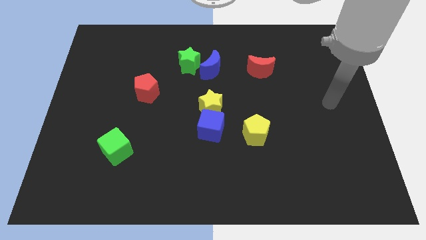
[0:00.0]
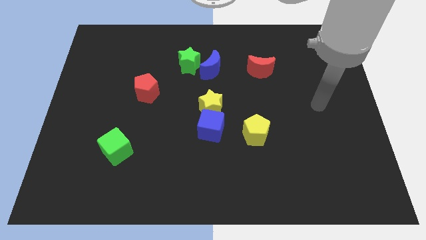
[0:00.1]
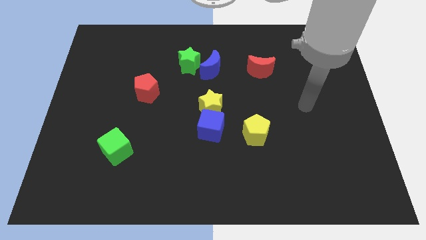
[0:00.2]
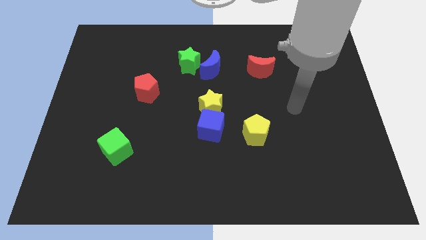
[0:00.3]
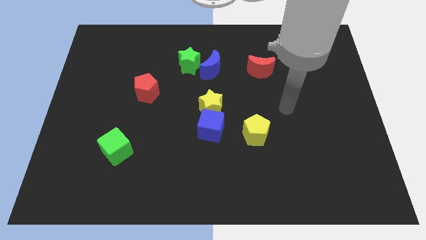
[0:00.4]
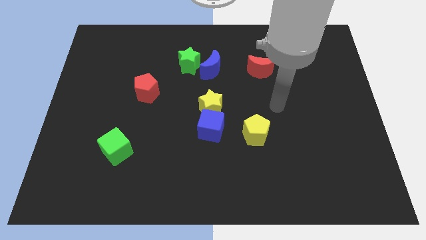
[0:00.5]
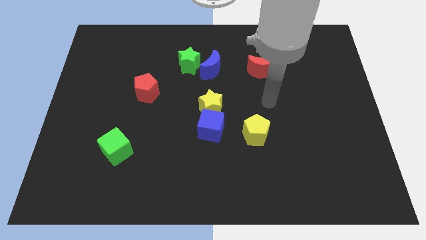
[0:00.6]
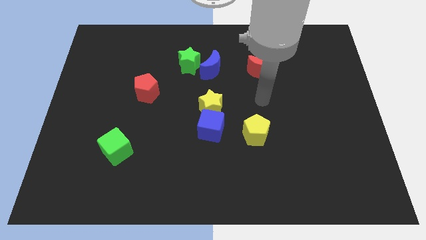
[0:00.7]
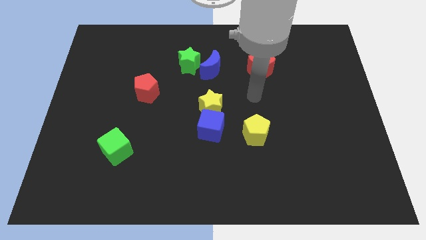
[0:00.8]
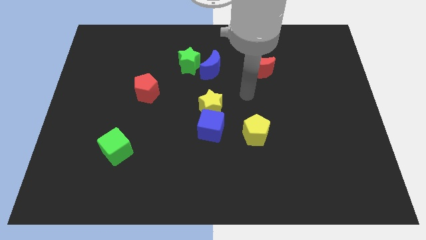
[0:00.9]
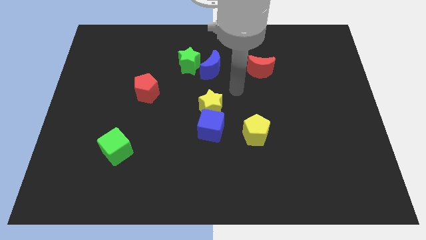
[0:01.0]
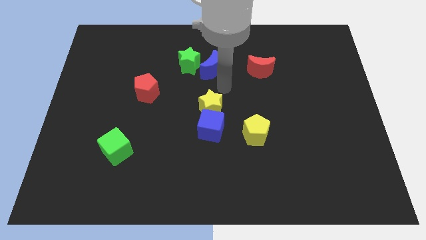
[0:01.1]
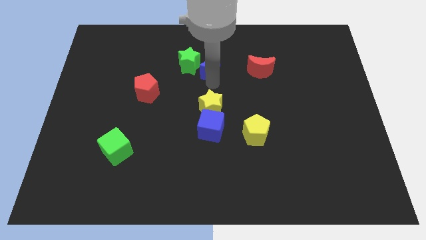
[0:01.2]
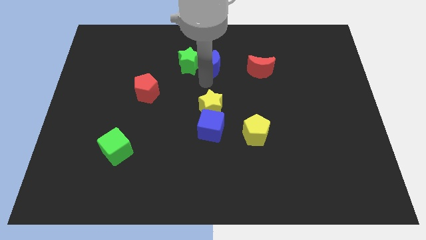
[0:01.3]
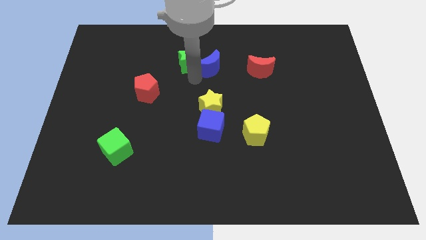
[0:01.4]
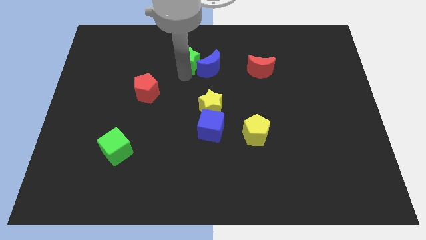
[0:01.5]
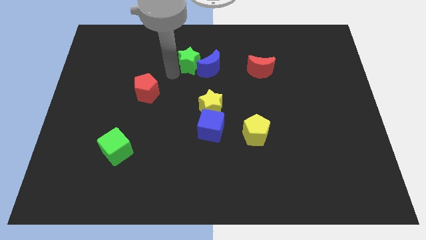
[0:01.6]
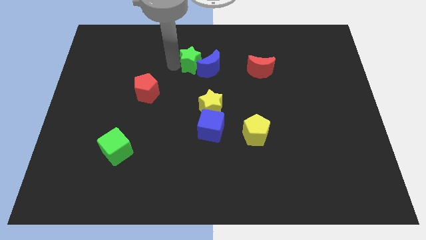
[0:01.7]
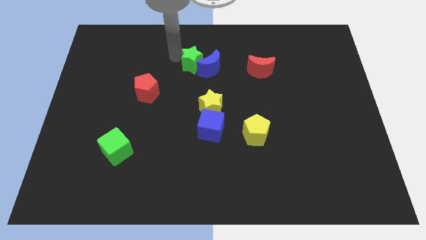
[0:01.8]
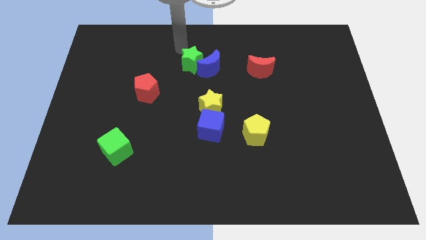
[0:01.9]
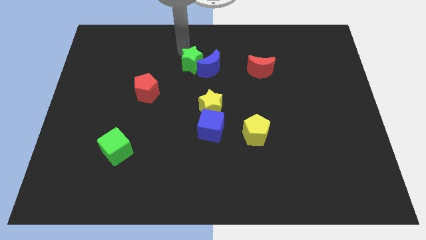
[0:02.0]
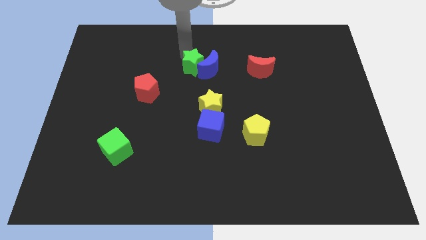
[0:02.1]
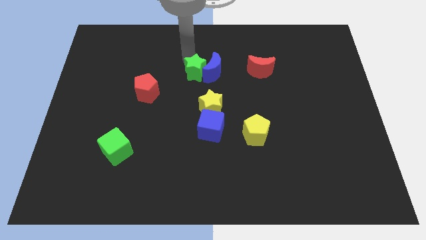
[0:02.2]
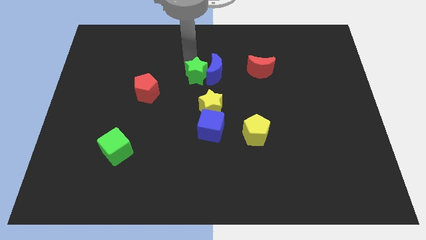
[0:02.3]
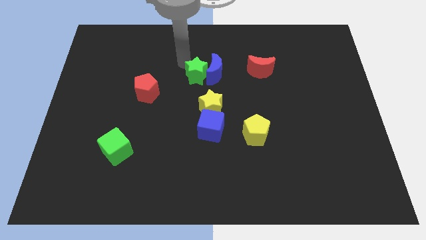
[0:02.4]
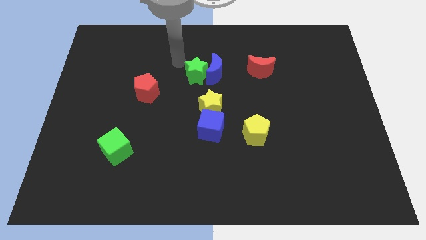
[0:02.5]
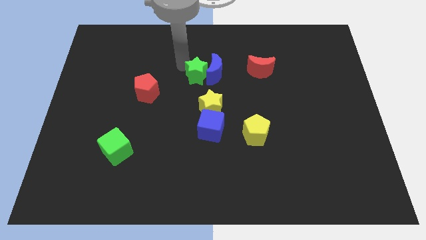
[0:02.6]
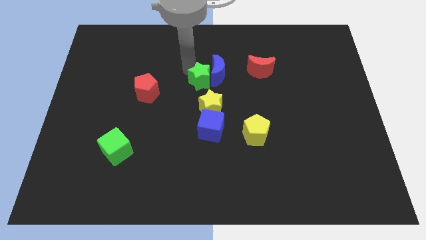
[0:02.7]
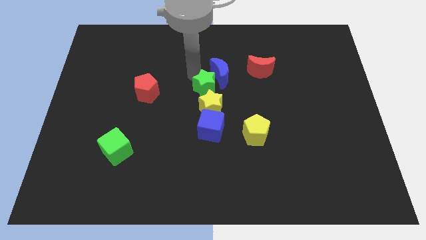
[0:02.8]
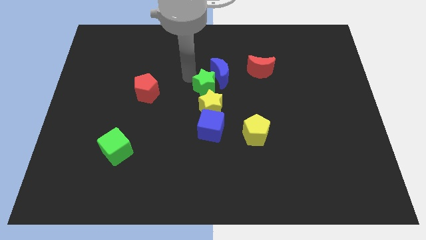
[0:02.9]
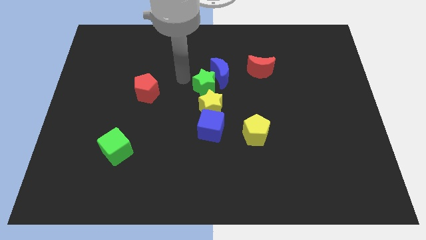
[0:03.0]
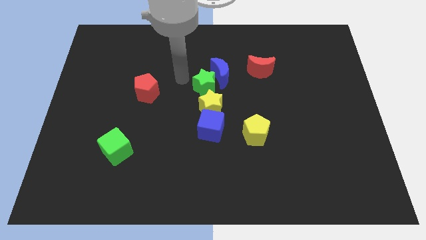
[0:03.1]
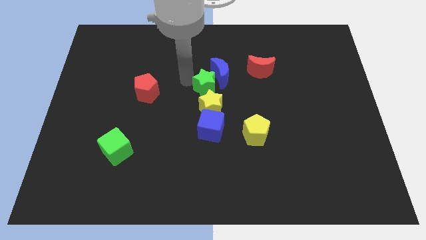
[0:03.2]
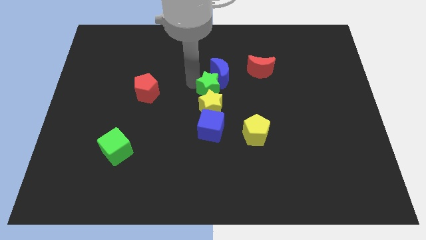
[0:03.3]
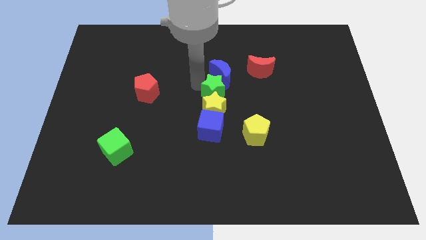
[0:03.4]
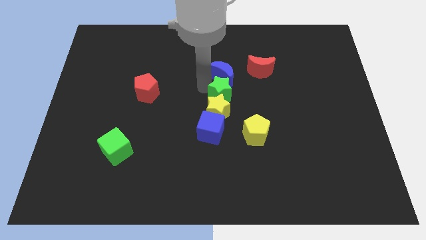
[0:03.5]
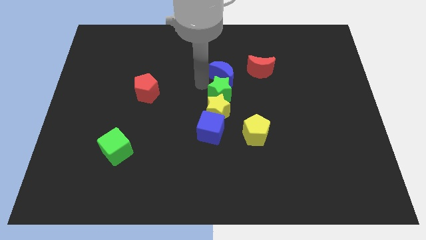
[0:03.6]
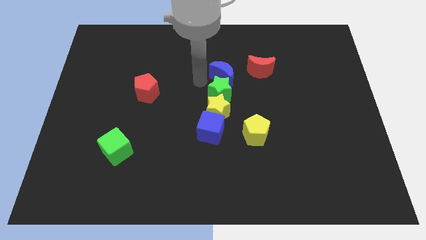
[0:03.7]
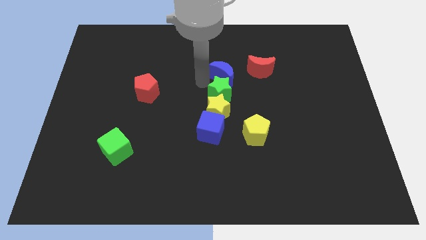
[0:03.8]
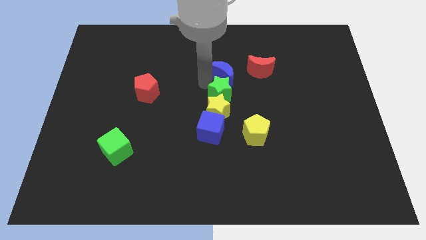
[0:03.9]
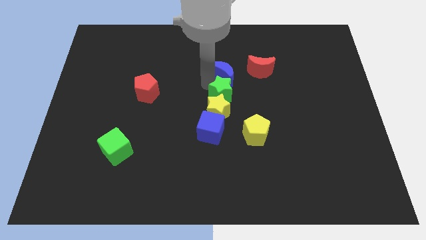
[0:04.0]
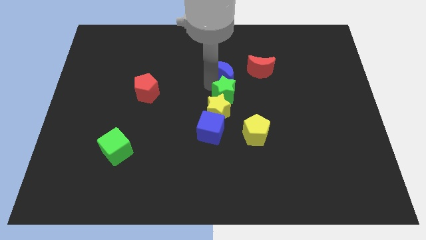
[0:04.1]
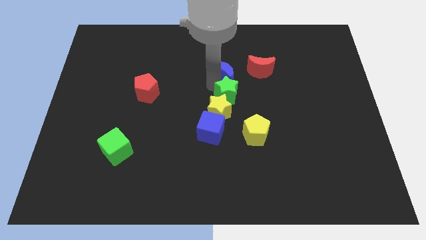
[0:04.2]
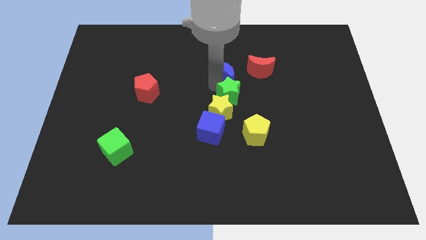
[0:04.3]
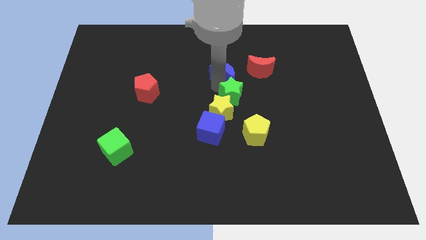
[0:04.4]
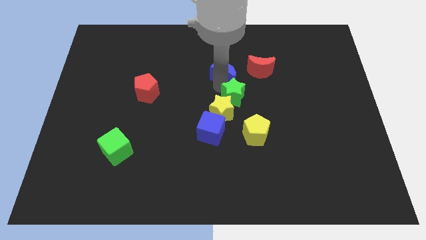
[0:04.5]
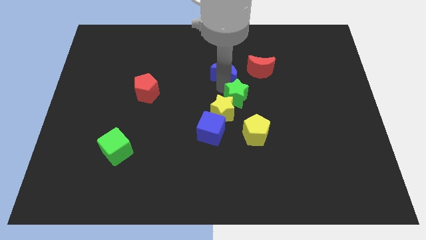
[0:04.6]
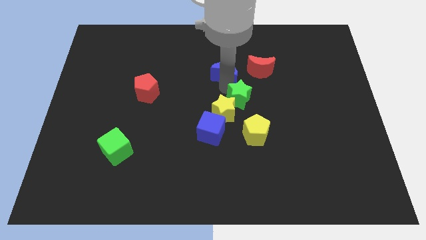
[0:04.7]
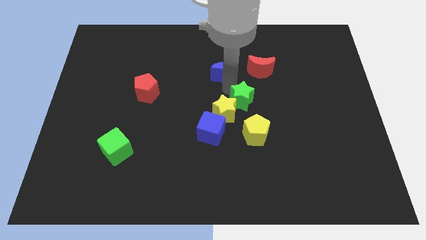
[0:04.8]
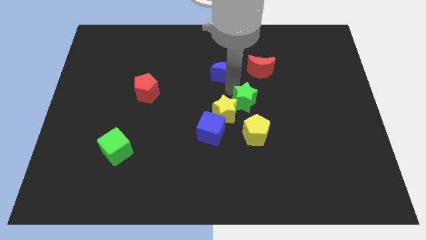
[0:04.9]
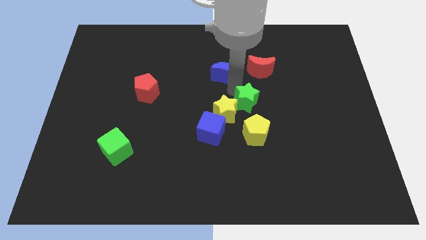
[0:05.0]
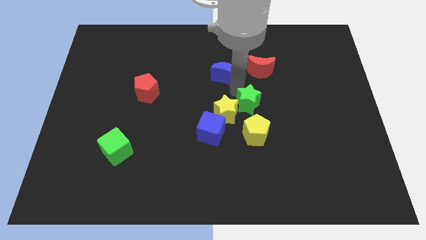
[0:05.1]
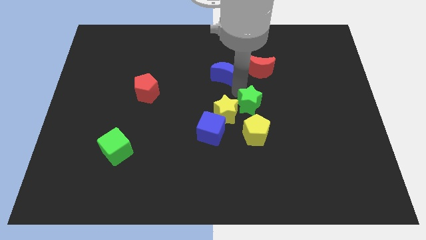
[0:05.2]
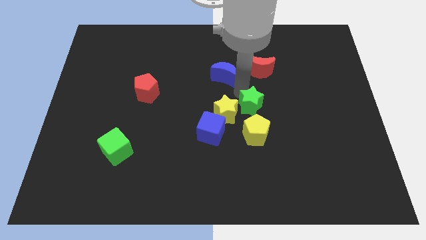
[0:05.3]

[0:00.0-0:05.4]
slide the green star downwards and right

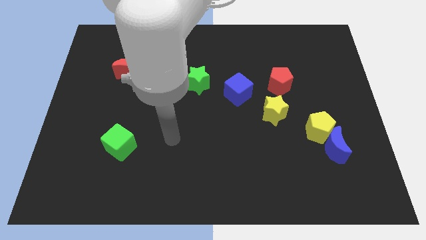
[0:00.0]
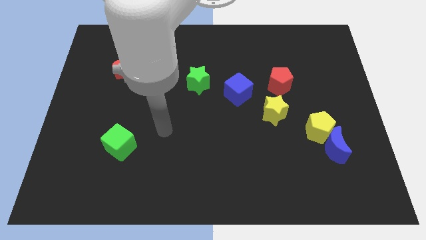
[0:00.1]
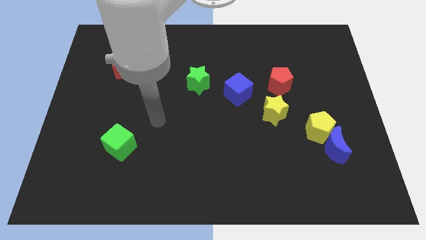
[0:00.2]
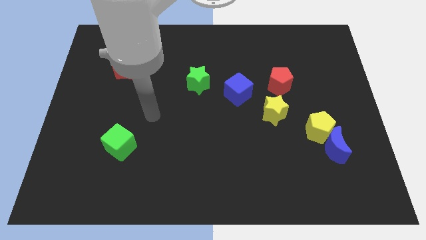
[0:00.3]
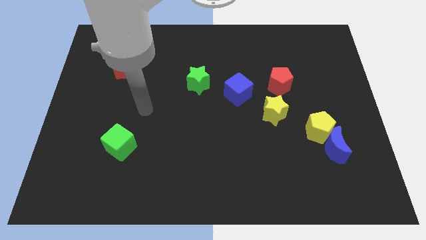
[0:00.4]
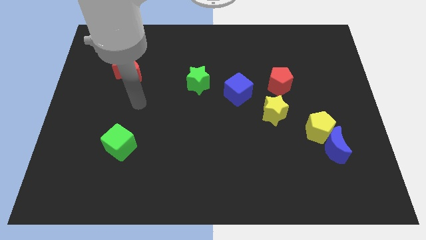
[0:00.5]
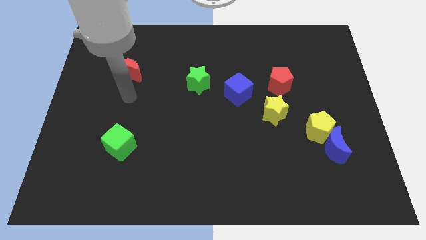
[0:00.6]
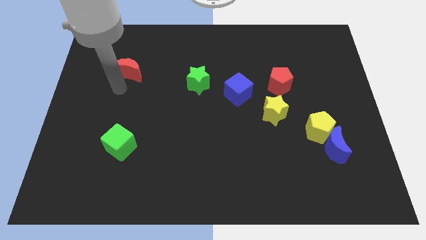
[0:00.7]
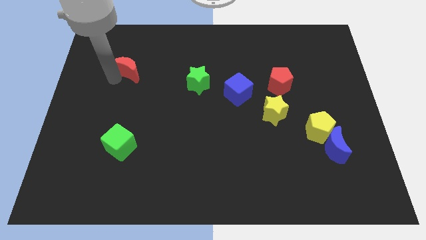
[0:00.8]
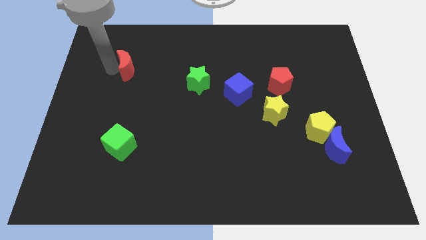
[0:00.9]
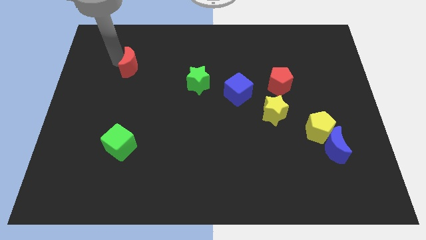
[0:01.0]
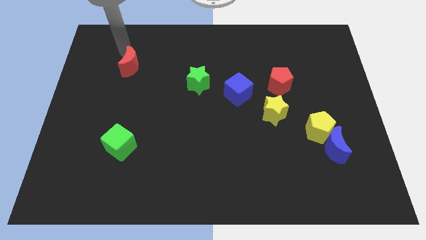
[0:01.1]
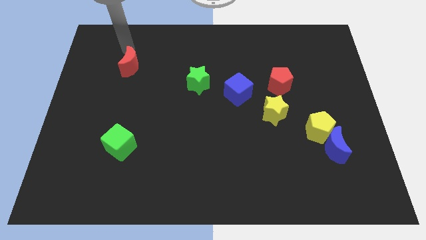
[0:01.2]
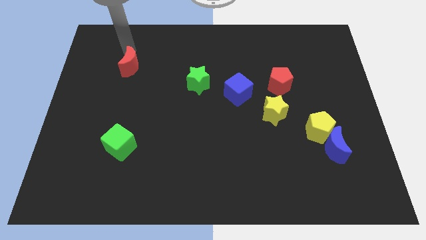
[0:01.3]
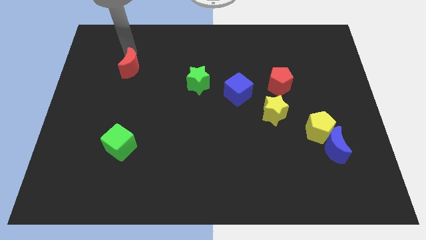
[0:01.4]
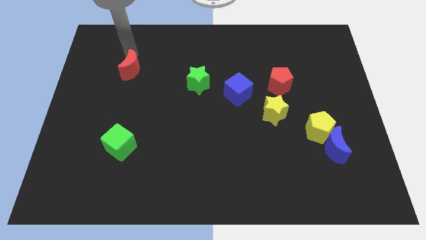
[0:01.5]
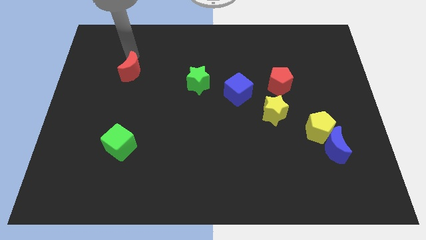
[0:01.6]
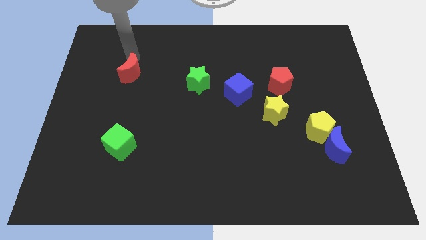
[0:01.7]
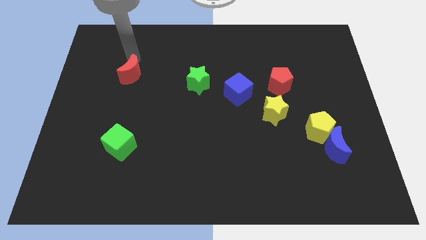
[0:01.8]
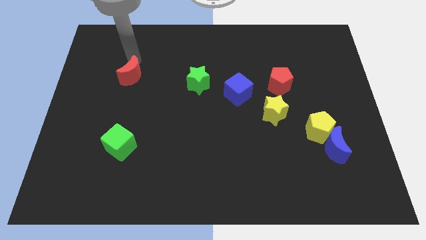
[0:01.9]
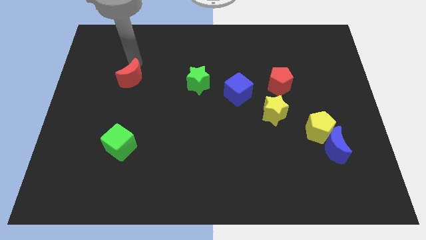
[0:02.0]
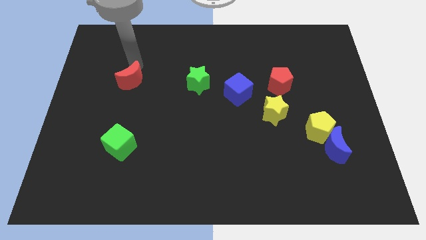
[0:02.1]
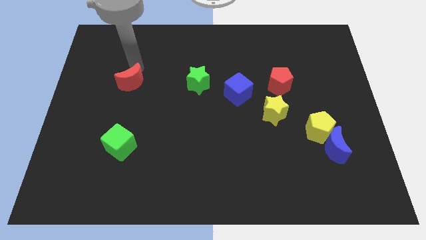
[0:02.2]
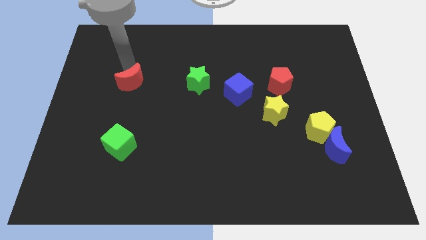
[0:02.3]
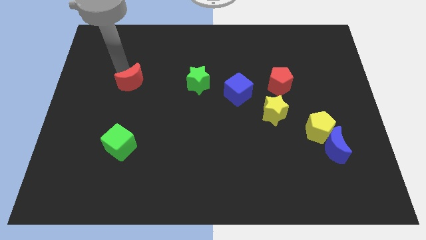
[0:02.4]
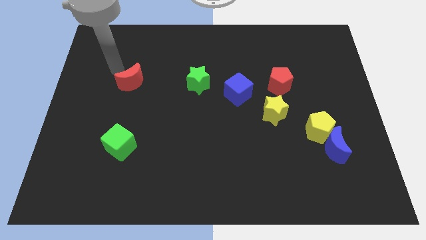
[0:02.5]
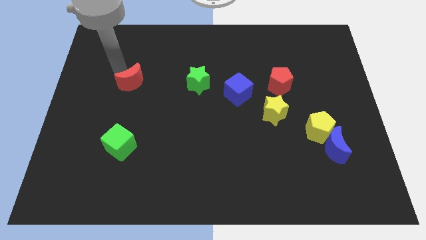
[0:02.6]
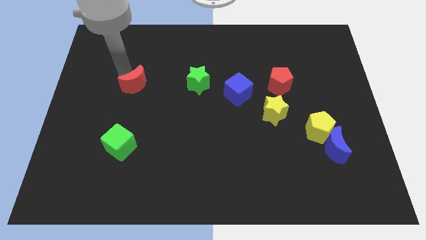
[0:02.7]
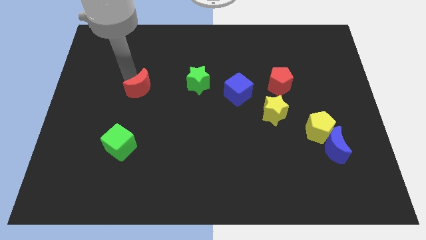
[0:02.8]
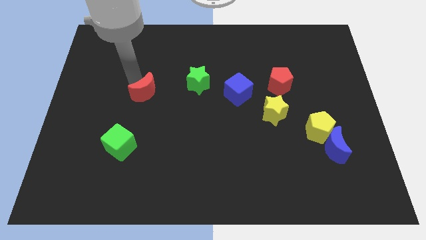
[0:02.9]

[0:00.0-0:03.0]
move the red moon a little downwards and then right

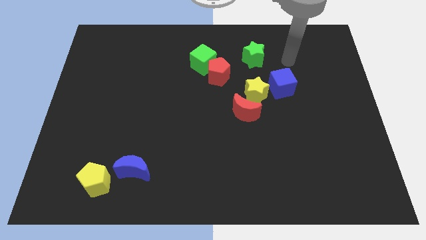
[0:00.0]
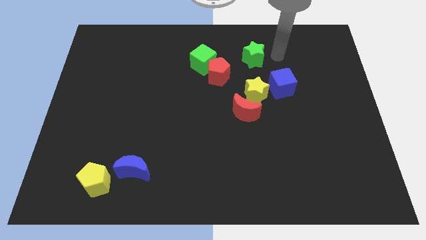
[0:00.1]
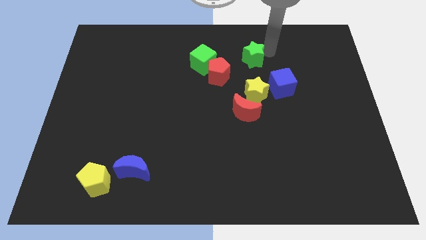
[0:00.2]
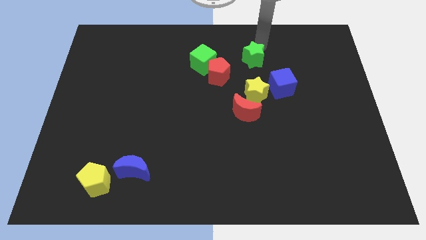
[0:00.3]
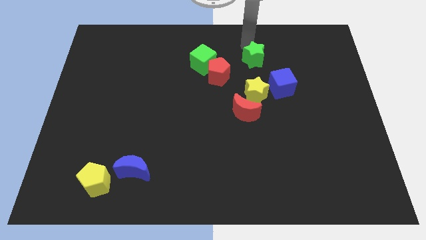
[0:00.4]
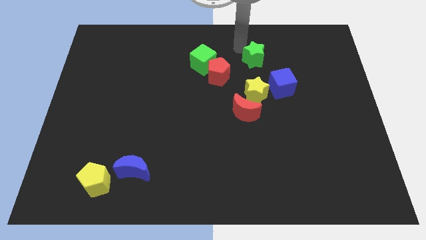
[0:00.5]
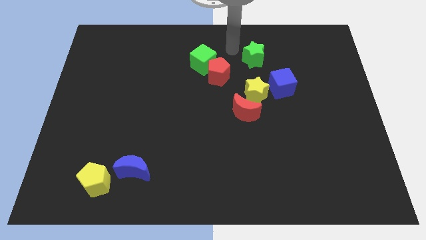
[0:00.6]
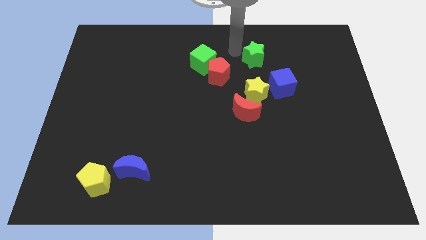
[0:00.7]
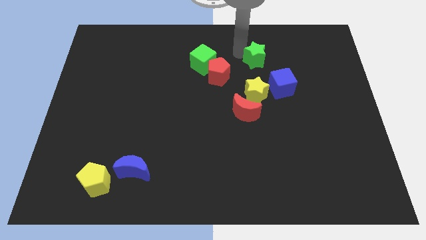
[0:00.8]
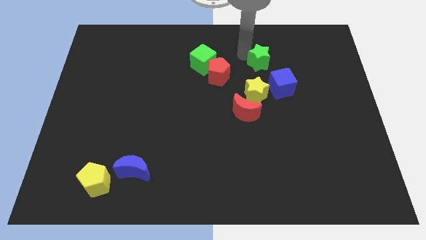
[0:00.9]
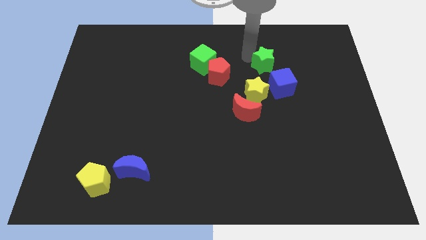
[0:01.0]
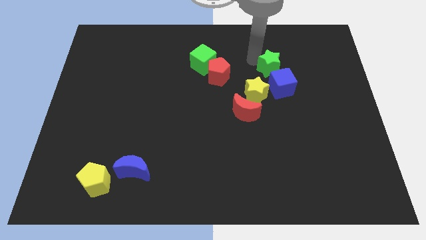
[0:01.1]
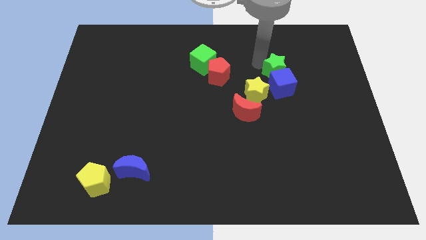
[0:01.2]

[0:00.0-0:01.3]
slide the green star diagonally downwards and to the right slightly
